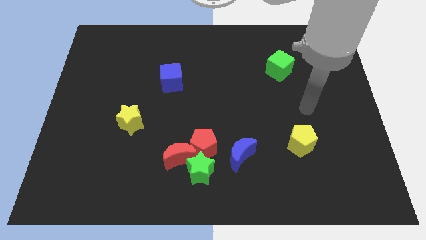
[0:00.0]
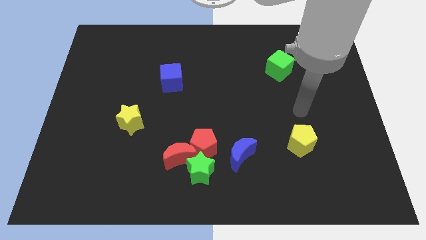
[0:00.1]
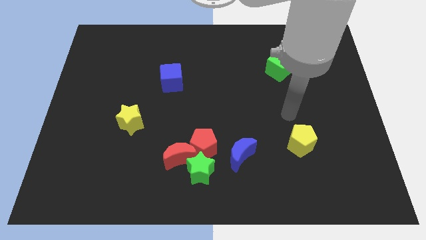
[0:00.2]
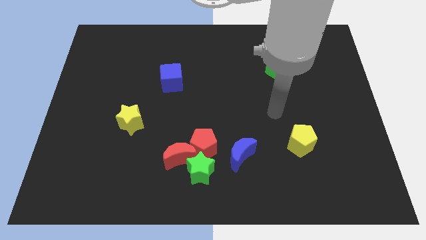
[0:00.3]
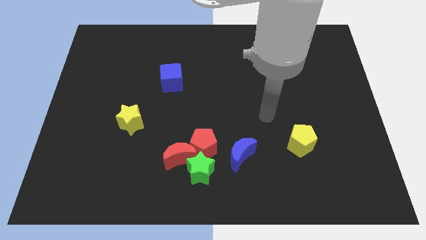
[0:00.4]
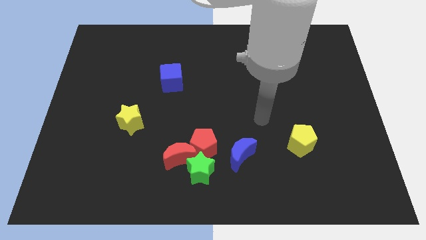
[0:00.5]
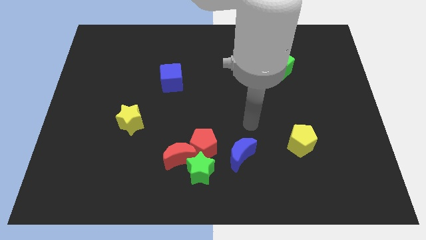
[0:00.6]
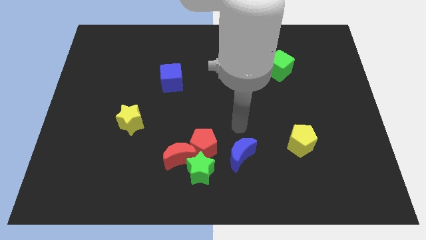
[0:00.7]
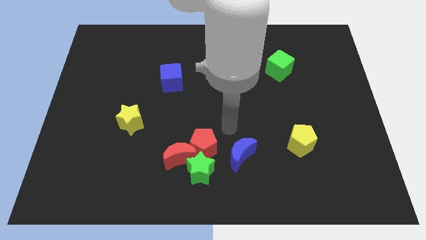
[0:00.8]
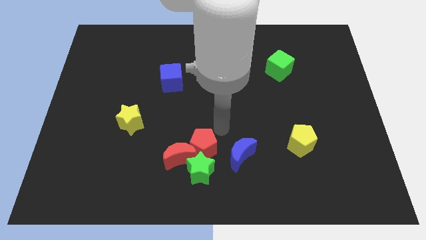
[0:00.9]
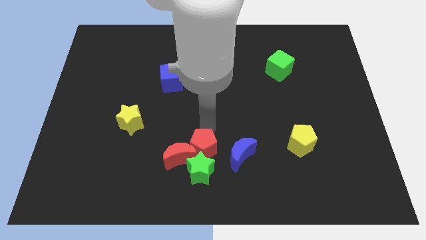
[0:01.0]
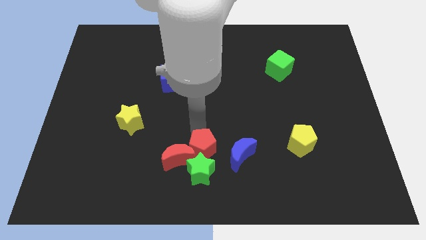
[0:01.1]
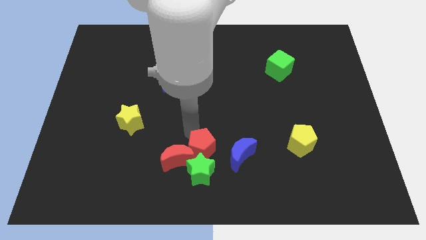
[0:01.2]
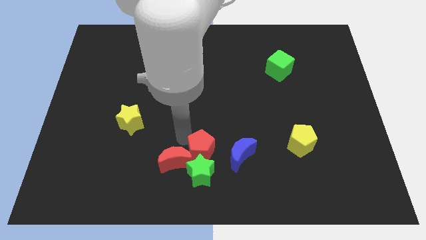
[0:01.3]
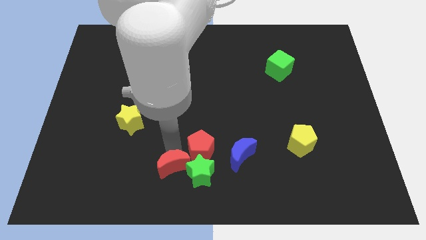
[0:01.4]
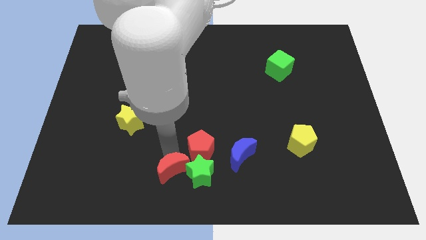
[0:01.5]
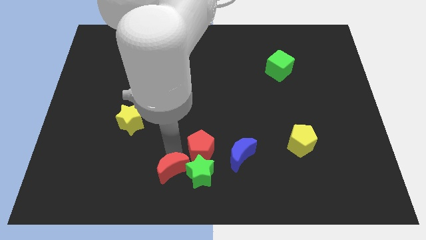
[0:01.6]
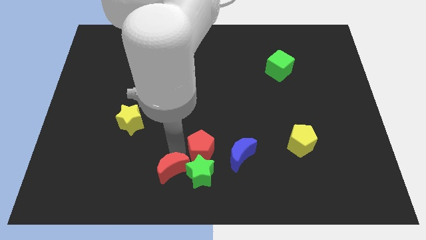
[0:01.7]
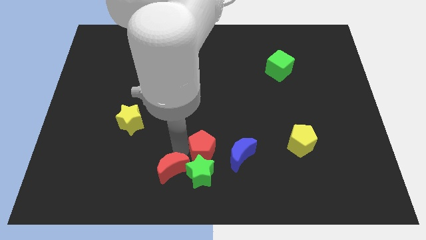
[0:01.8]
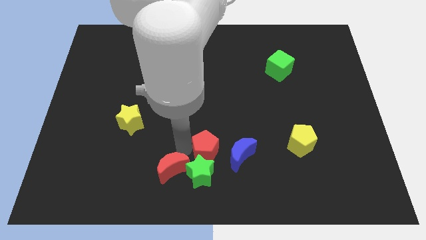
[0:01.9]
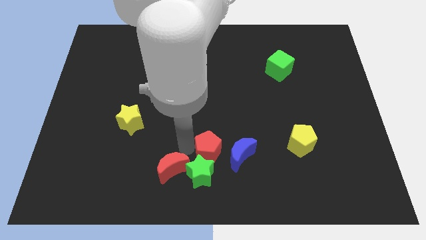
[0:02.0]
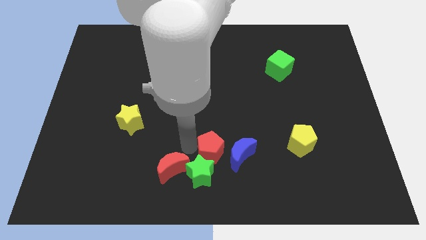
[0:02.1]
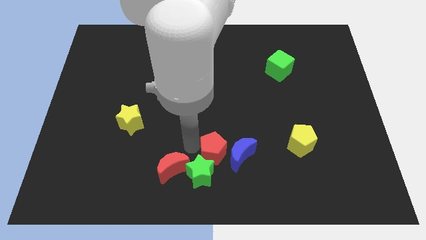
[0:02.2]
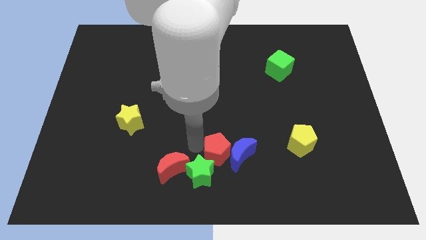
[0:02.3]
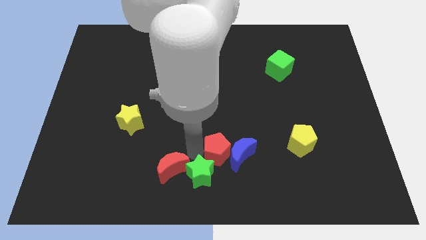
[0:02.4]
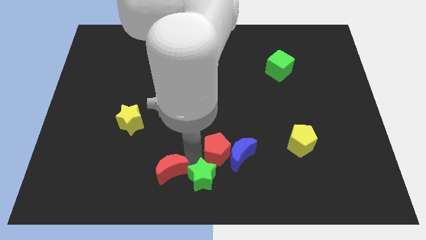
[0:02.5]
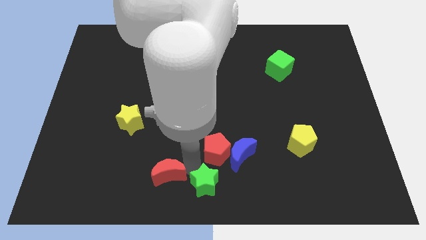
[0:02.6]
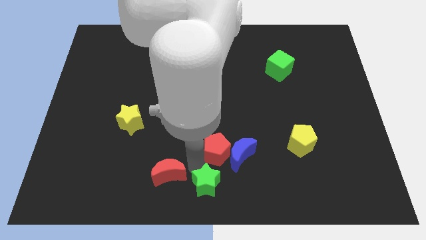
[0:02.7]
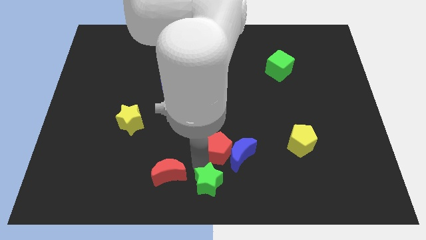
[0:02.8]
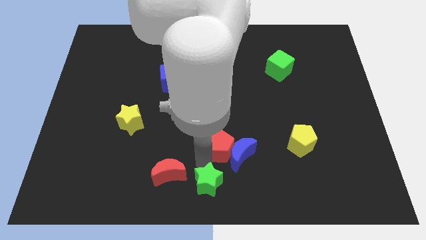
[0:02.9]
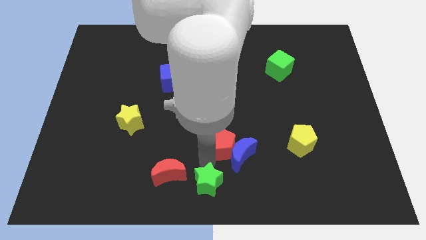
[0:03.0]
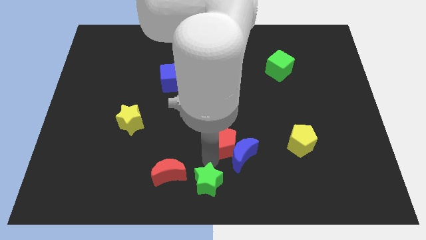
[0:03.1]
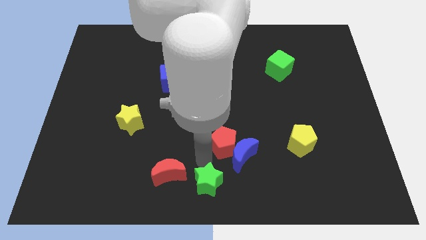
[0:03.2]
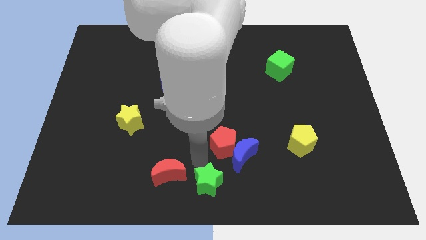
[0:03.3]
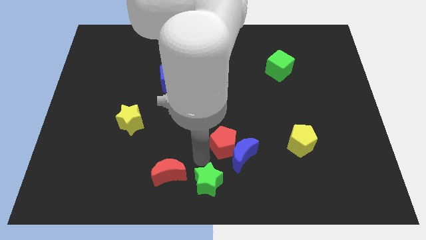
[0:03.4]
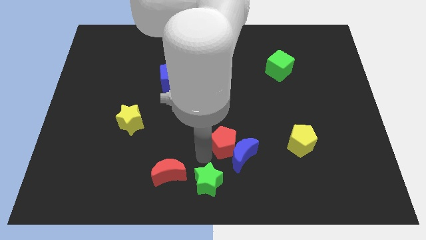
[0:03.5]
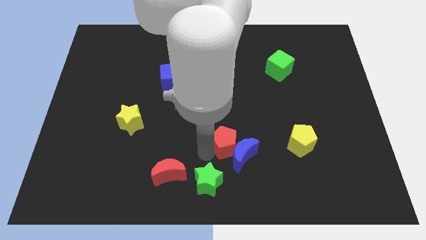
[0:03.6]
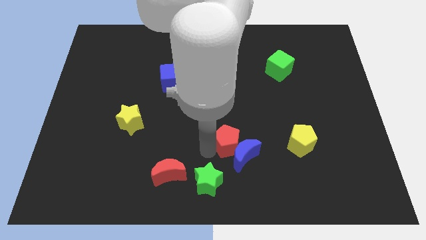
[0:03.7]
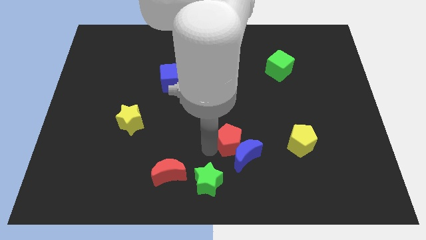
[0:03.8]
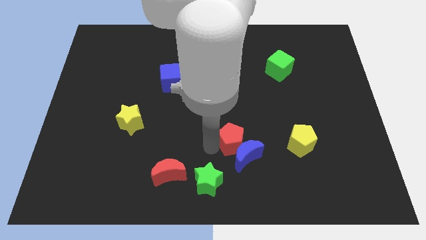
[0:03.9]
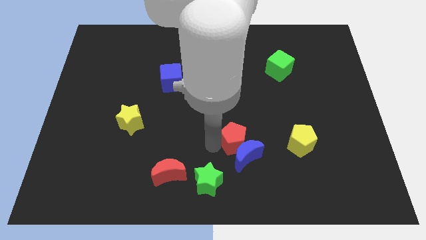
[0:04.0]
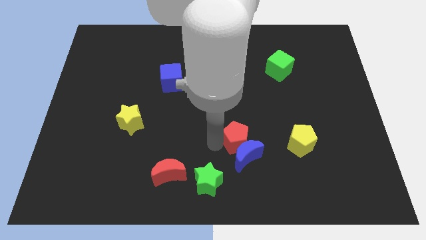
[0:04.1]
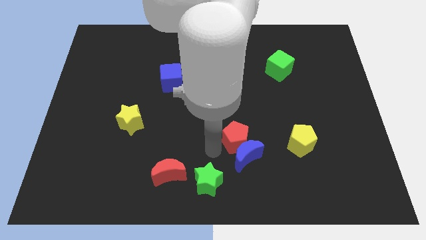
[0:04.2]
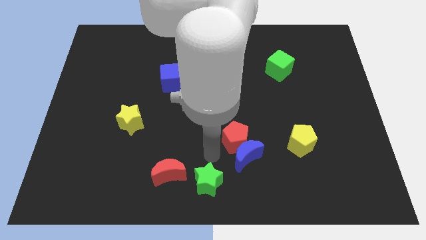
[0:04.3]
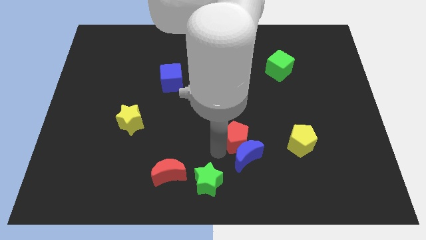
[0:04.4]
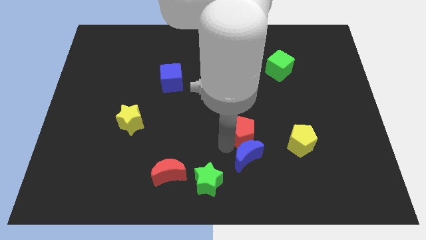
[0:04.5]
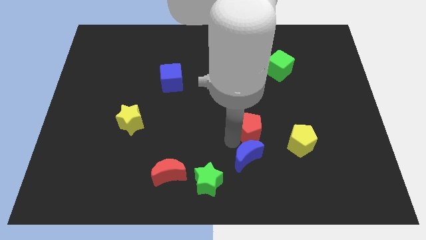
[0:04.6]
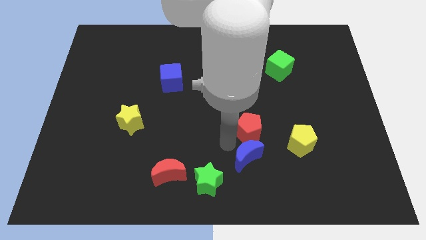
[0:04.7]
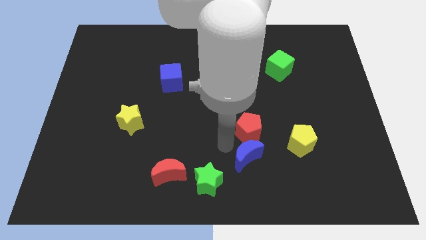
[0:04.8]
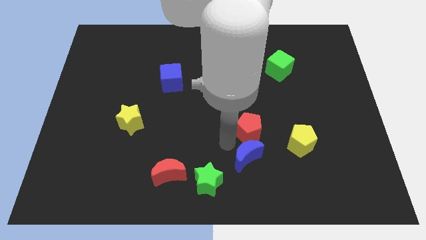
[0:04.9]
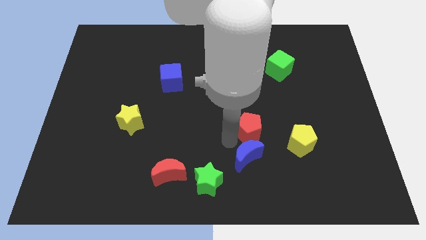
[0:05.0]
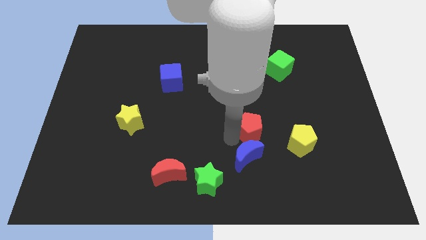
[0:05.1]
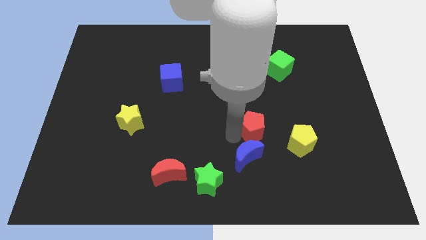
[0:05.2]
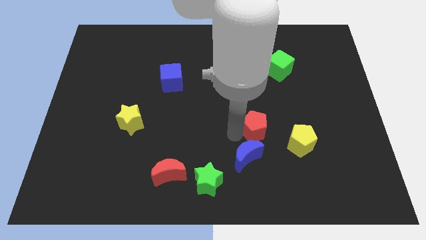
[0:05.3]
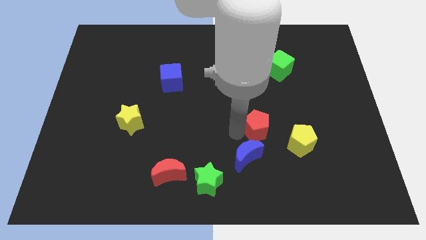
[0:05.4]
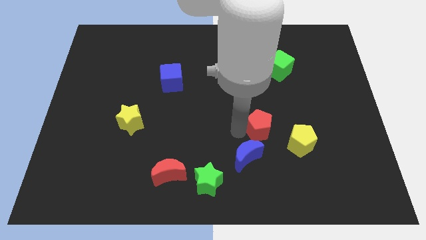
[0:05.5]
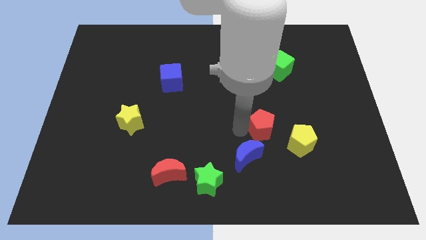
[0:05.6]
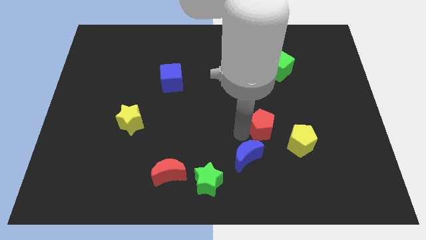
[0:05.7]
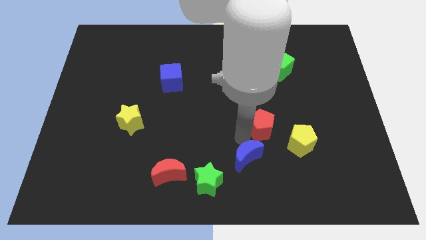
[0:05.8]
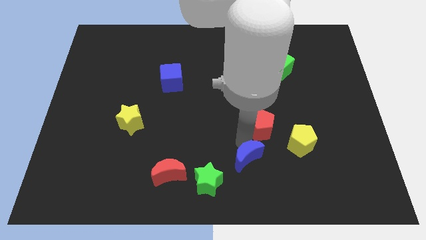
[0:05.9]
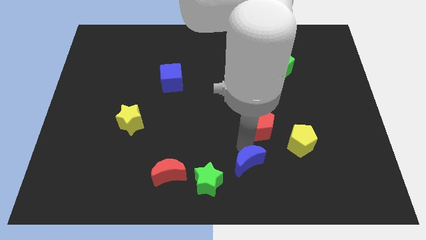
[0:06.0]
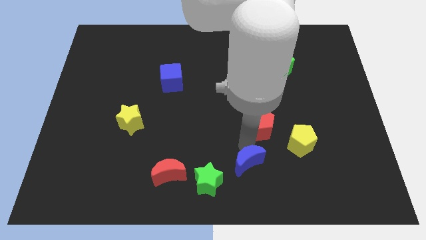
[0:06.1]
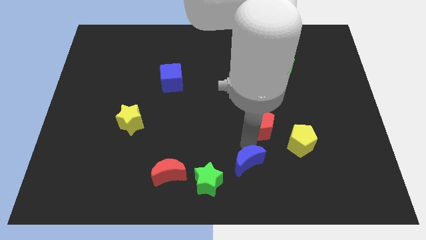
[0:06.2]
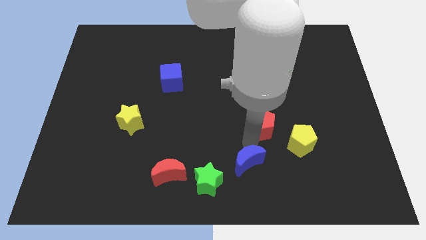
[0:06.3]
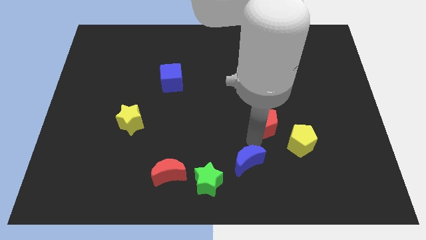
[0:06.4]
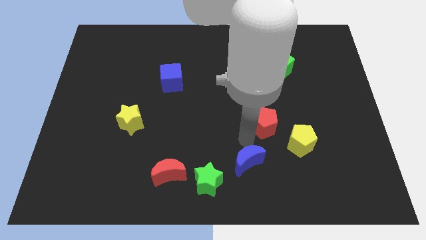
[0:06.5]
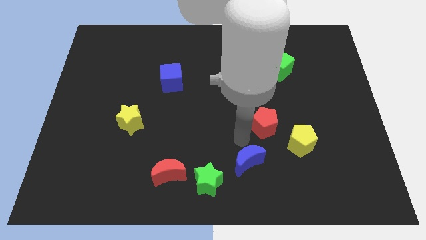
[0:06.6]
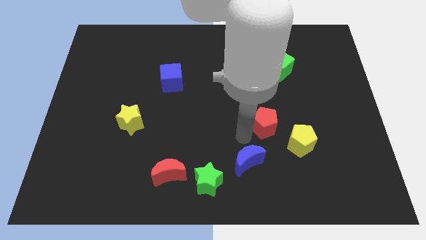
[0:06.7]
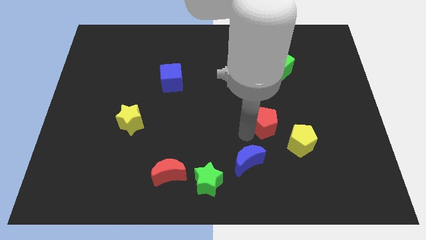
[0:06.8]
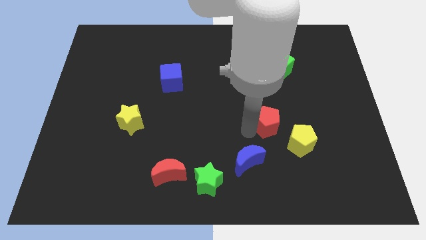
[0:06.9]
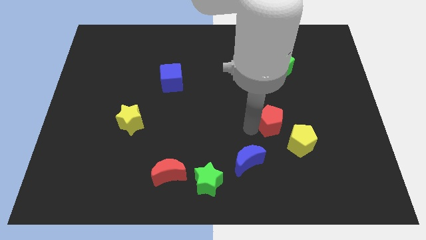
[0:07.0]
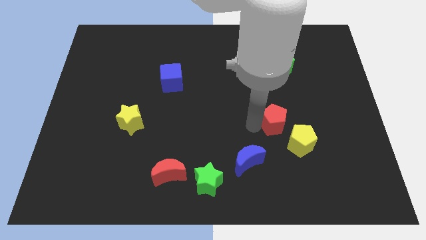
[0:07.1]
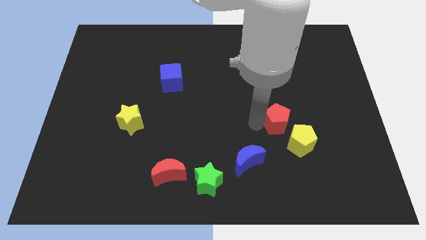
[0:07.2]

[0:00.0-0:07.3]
move the red pentagon above the yellow pentagon

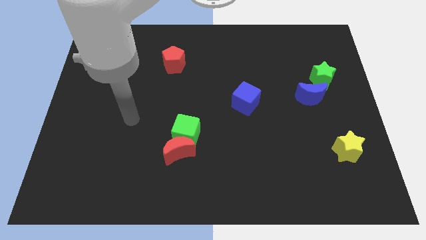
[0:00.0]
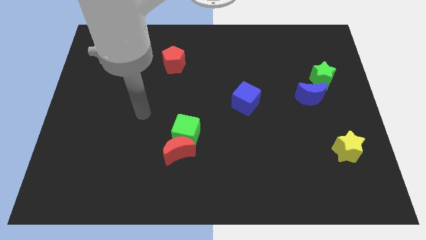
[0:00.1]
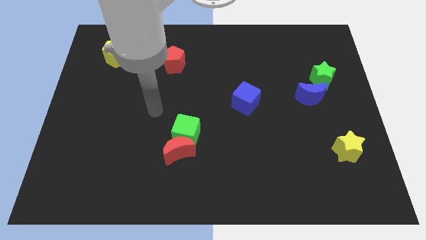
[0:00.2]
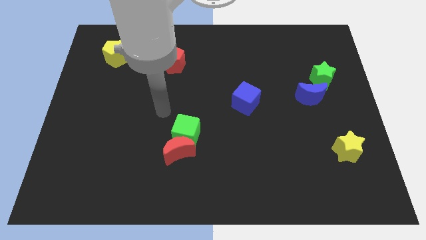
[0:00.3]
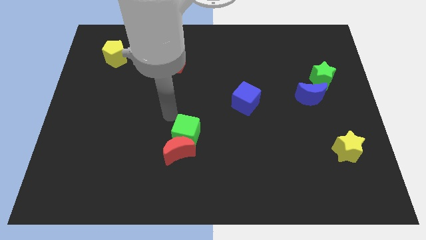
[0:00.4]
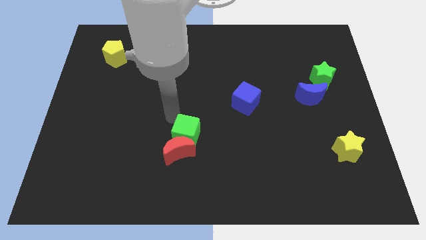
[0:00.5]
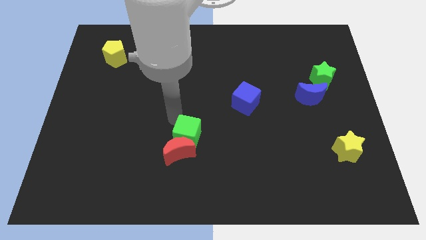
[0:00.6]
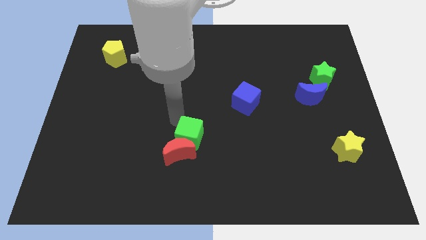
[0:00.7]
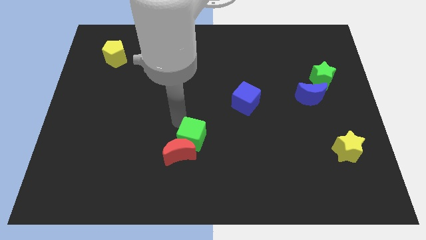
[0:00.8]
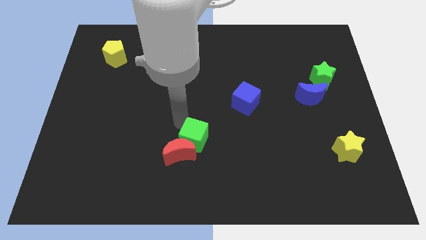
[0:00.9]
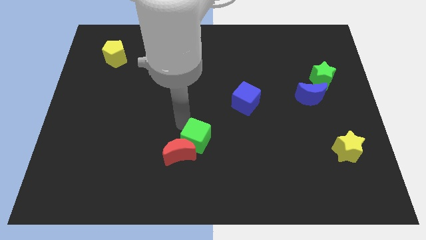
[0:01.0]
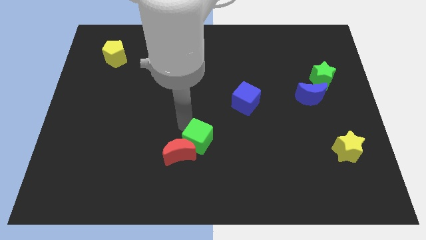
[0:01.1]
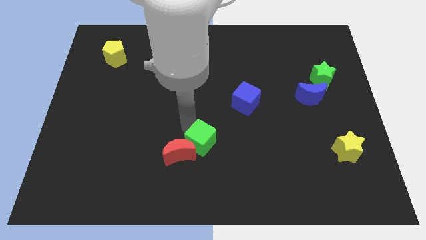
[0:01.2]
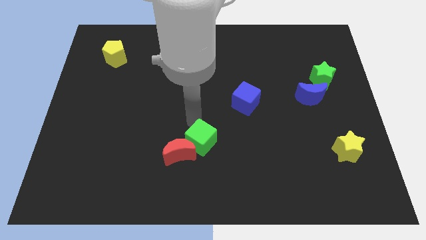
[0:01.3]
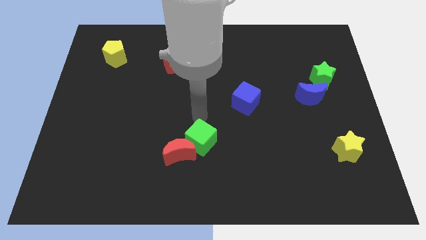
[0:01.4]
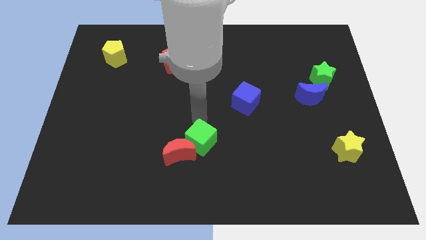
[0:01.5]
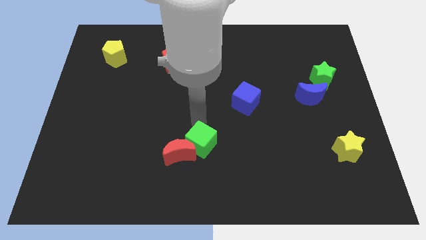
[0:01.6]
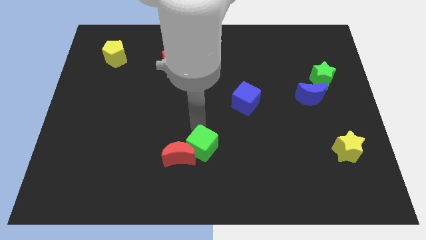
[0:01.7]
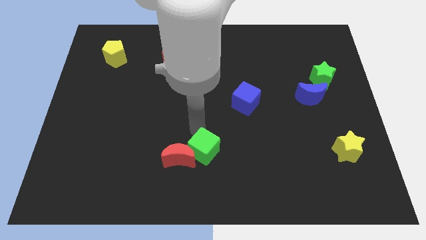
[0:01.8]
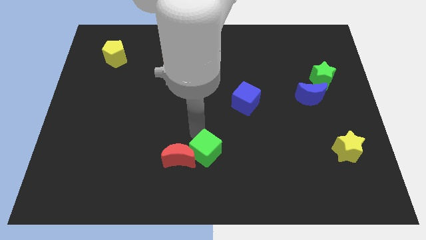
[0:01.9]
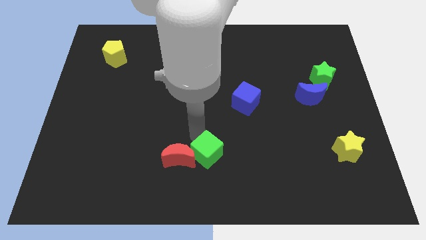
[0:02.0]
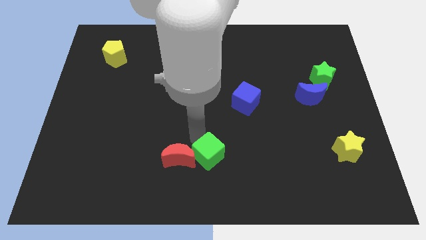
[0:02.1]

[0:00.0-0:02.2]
push the green cube to the bottom right of the red moon
